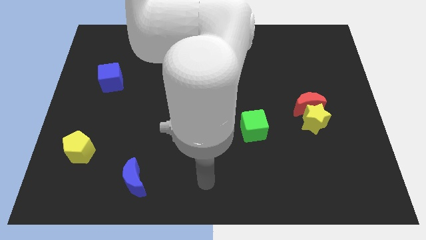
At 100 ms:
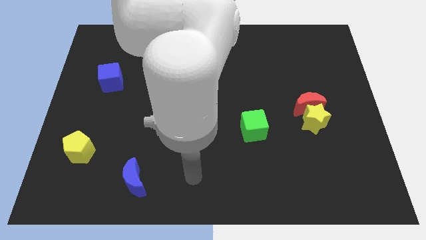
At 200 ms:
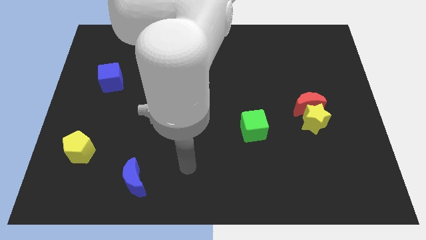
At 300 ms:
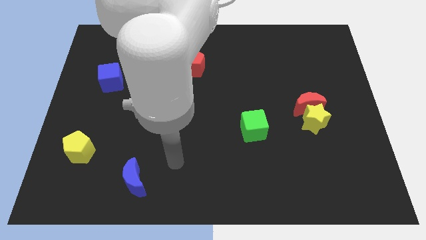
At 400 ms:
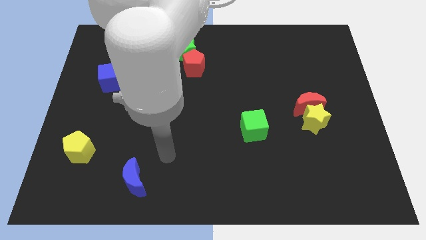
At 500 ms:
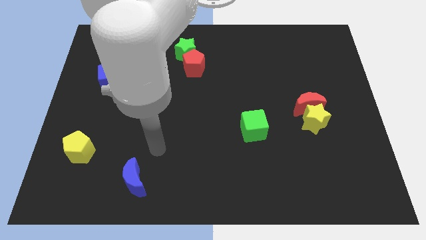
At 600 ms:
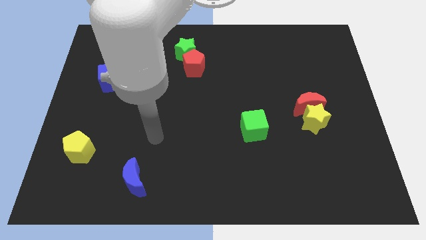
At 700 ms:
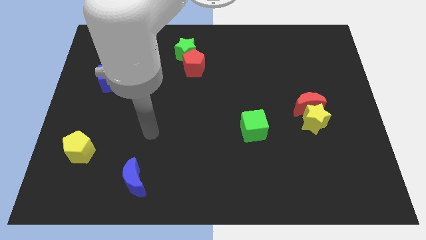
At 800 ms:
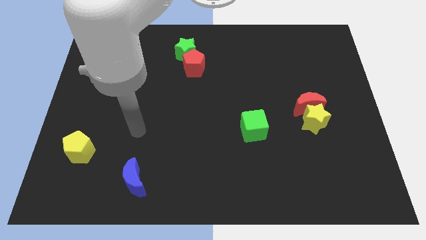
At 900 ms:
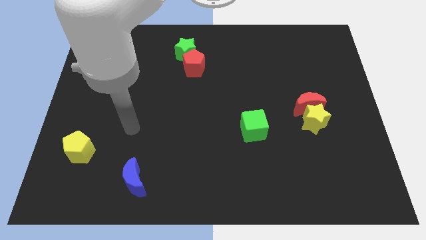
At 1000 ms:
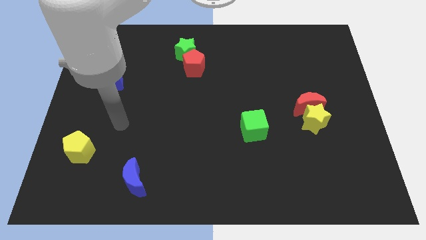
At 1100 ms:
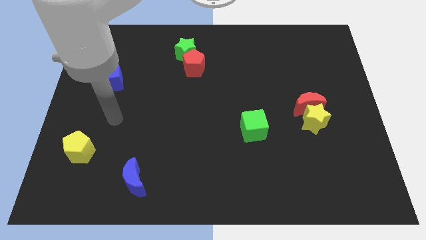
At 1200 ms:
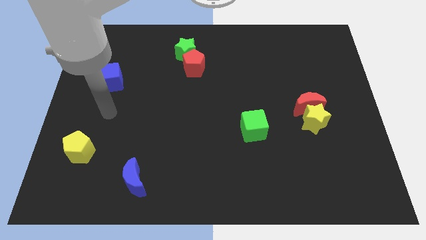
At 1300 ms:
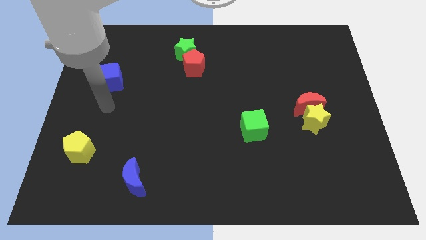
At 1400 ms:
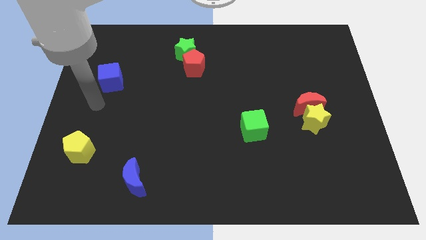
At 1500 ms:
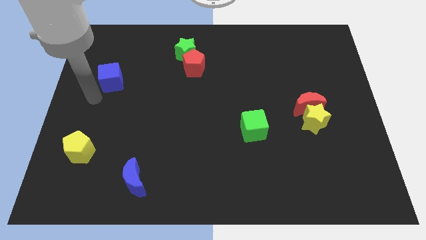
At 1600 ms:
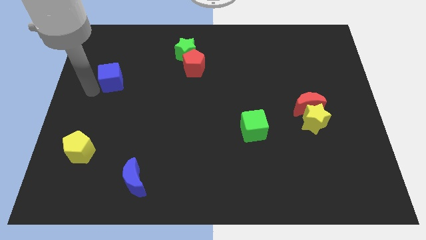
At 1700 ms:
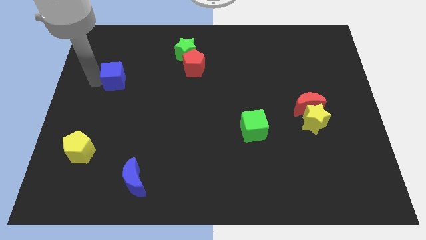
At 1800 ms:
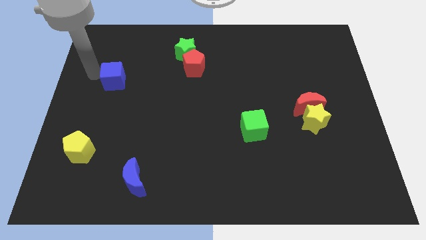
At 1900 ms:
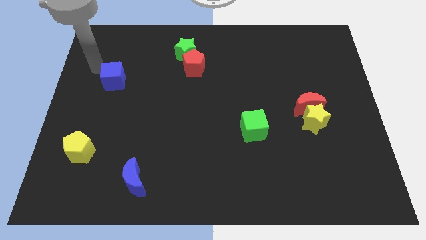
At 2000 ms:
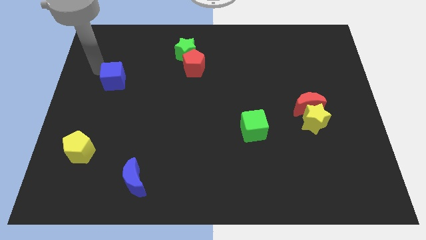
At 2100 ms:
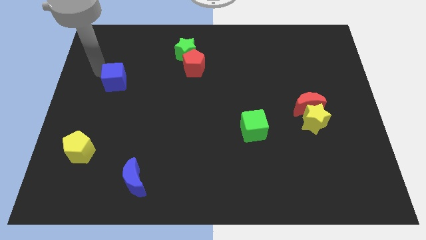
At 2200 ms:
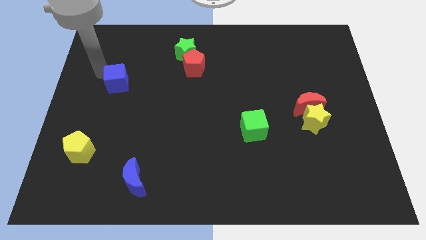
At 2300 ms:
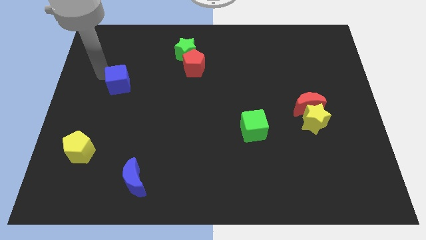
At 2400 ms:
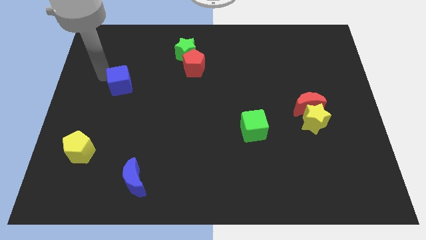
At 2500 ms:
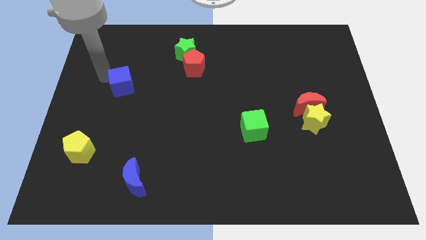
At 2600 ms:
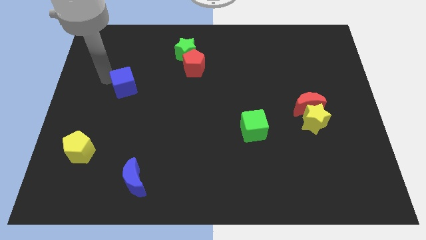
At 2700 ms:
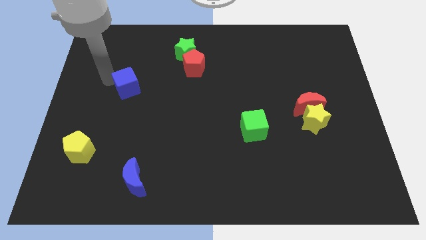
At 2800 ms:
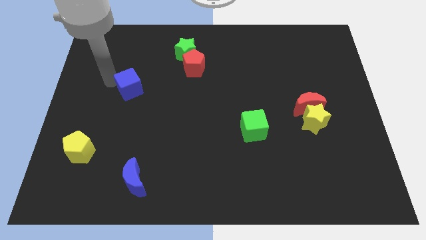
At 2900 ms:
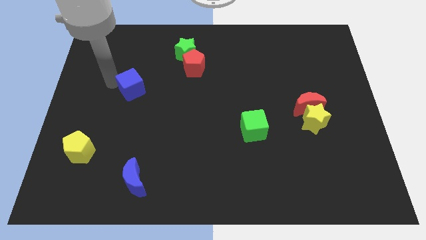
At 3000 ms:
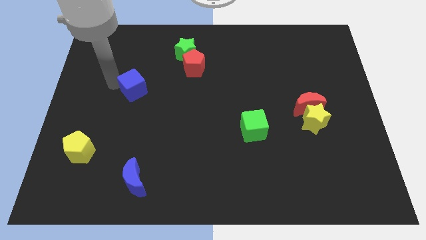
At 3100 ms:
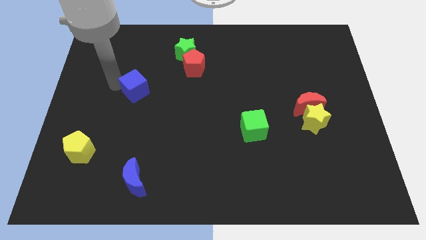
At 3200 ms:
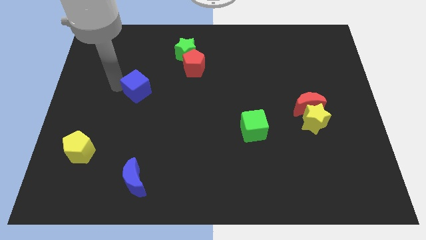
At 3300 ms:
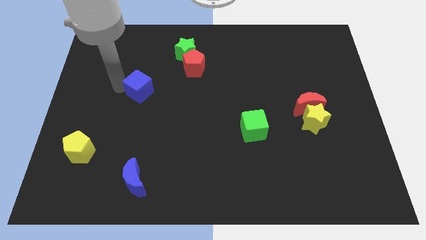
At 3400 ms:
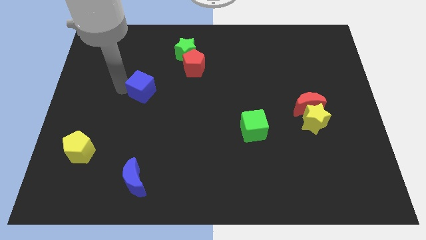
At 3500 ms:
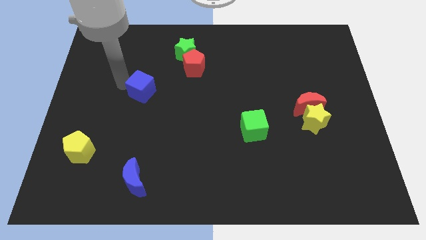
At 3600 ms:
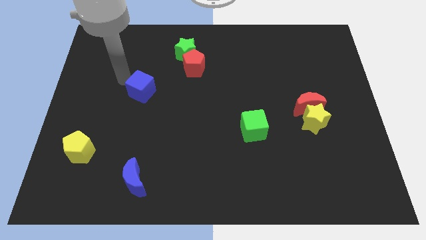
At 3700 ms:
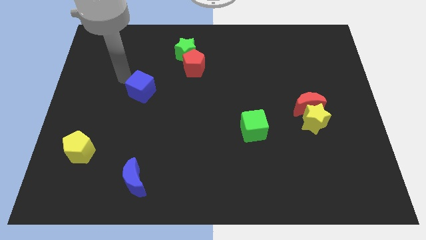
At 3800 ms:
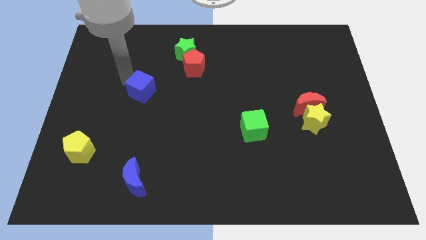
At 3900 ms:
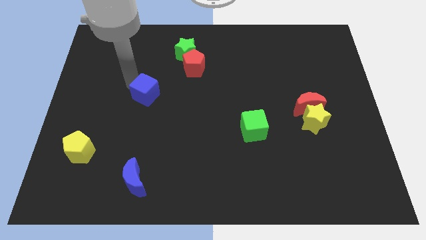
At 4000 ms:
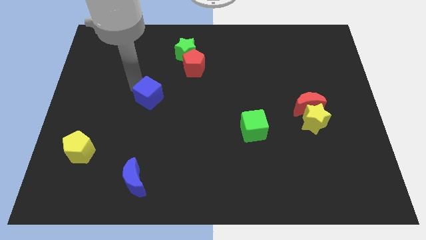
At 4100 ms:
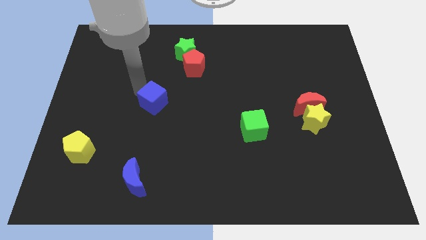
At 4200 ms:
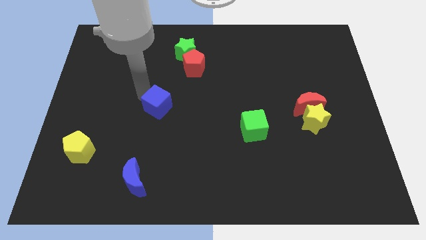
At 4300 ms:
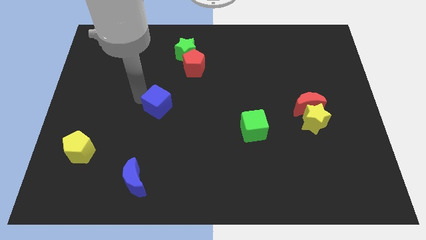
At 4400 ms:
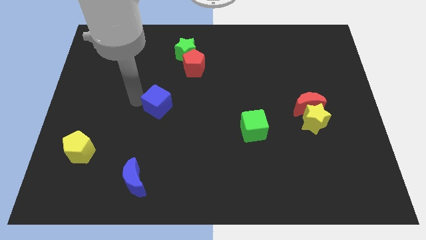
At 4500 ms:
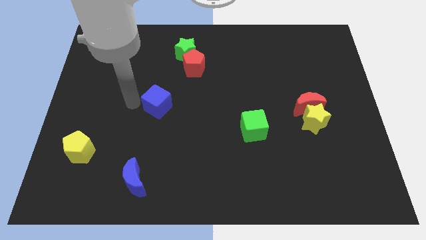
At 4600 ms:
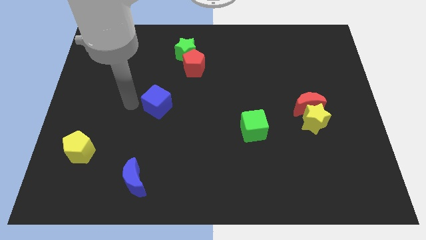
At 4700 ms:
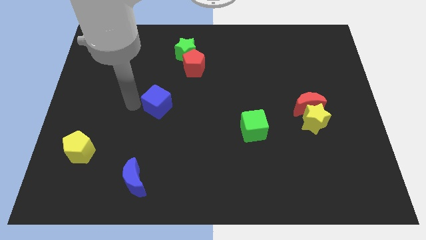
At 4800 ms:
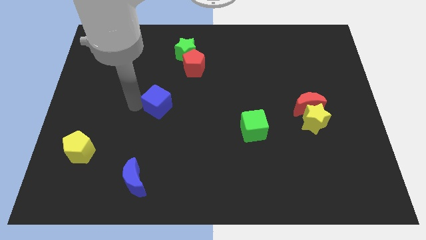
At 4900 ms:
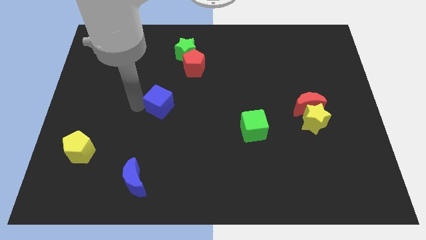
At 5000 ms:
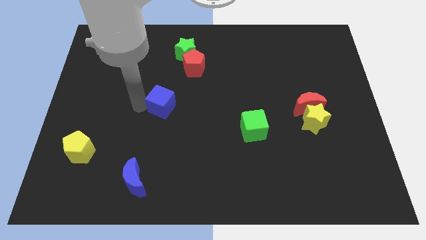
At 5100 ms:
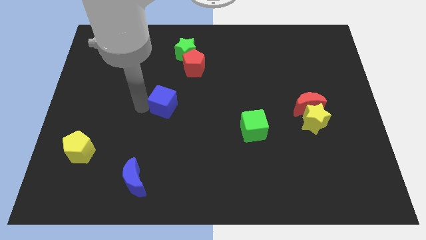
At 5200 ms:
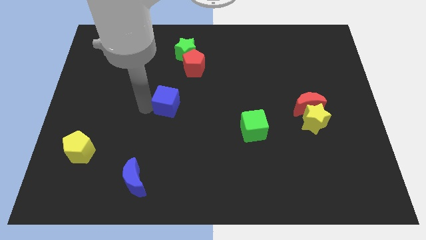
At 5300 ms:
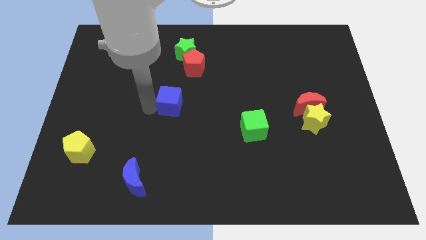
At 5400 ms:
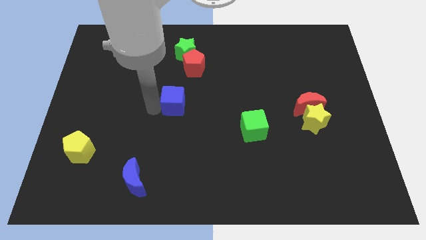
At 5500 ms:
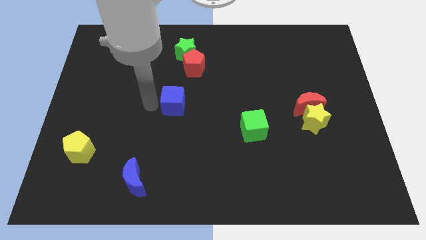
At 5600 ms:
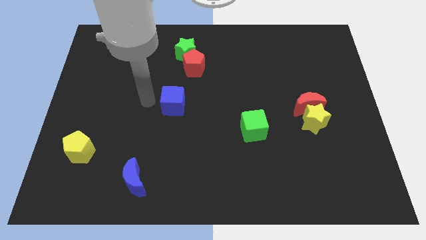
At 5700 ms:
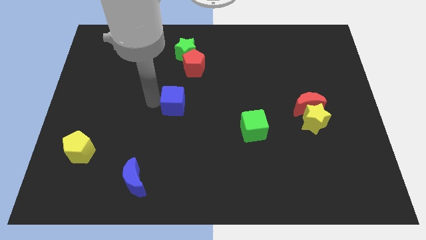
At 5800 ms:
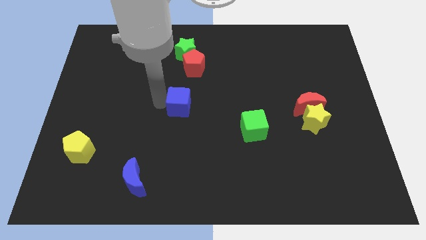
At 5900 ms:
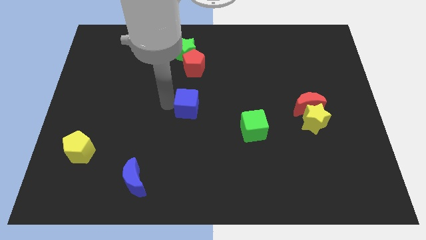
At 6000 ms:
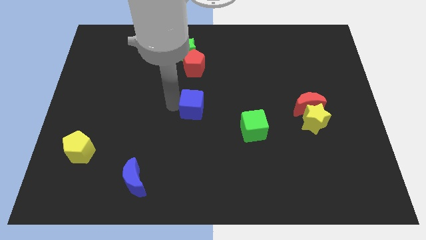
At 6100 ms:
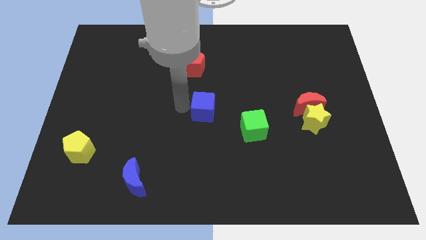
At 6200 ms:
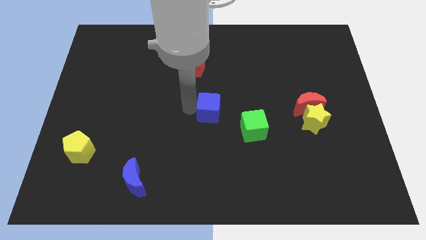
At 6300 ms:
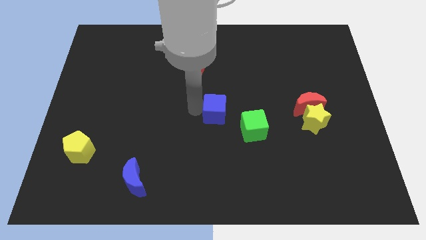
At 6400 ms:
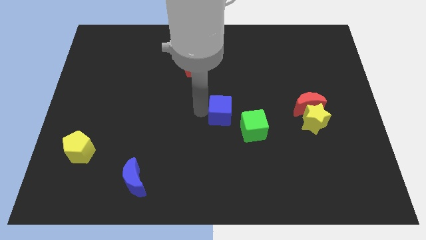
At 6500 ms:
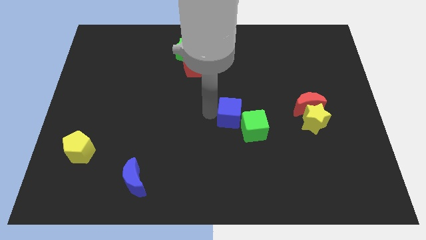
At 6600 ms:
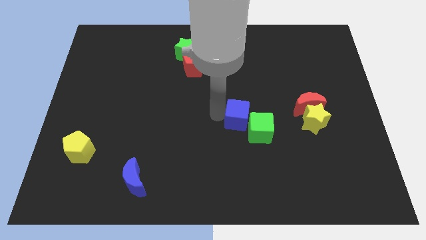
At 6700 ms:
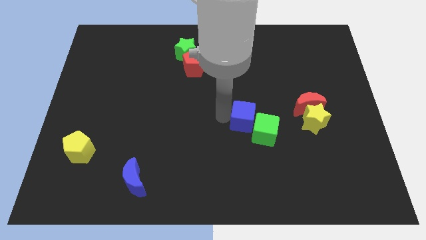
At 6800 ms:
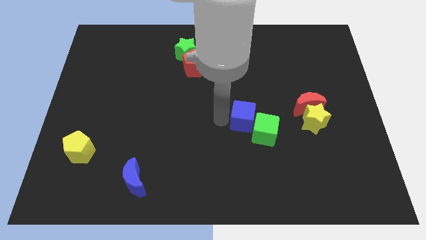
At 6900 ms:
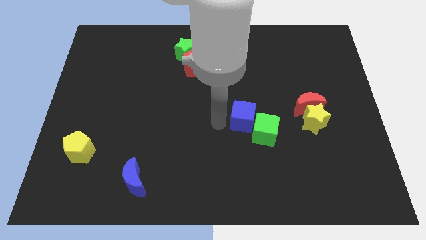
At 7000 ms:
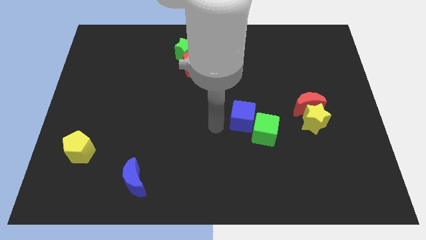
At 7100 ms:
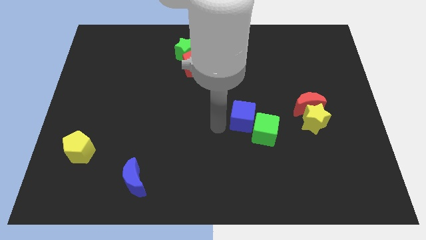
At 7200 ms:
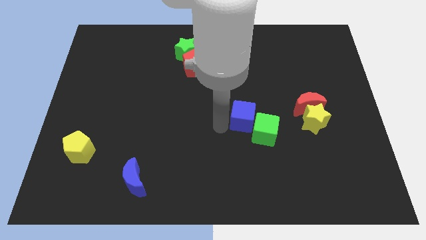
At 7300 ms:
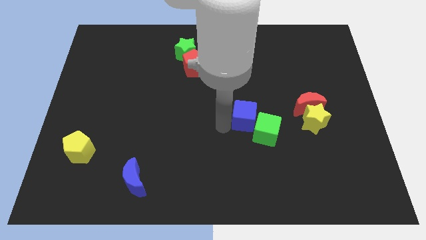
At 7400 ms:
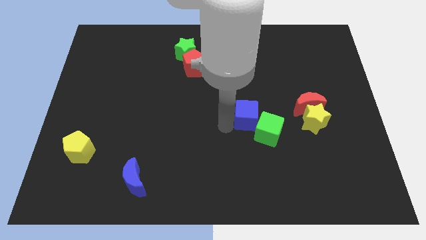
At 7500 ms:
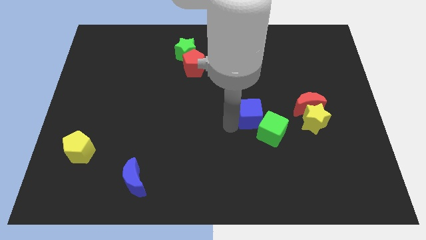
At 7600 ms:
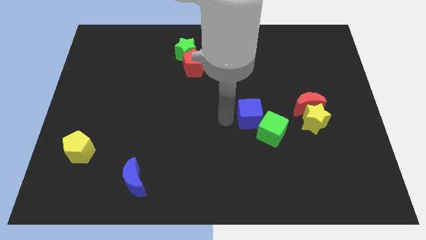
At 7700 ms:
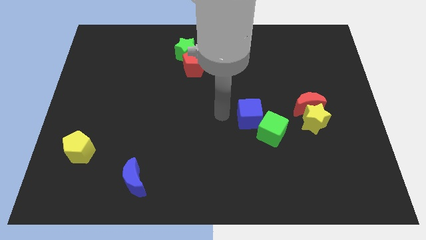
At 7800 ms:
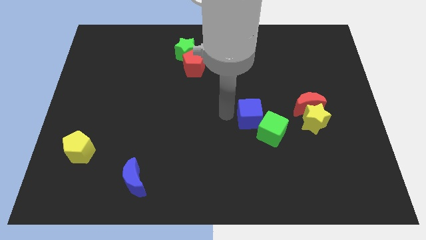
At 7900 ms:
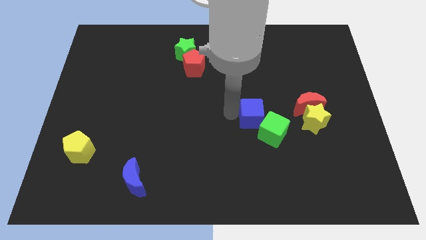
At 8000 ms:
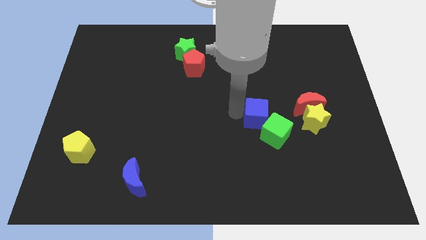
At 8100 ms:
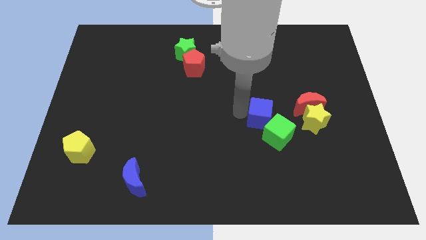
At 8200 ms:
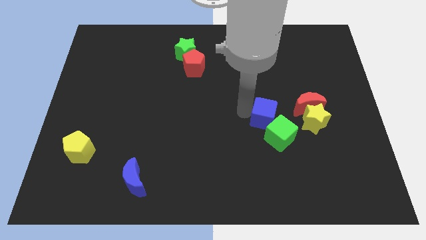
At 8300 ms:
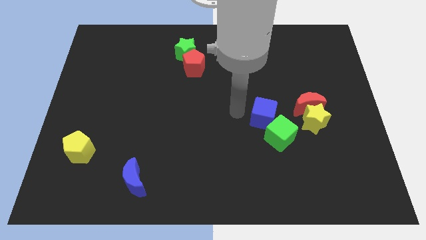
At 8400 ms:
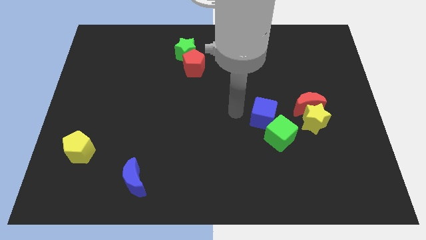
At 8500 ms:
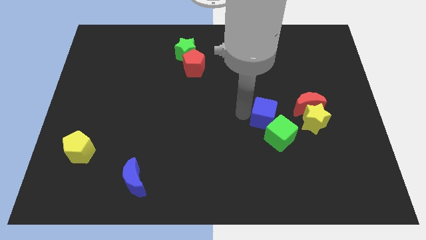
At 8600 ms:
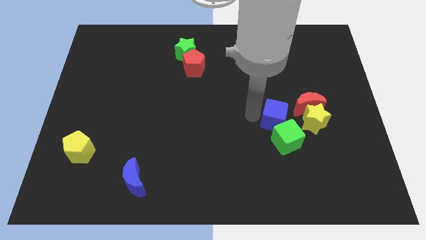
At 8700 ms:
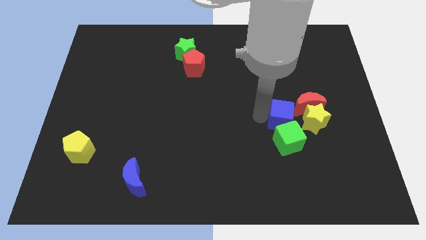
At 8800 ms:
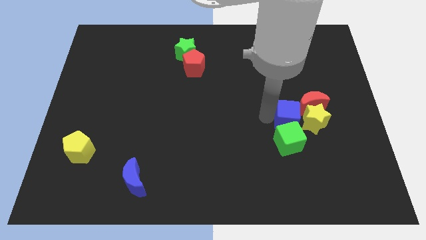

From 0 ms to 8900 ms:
slide the blue cube to the yellow star
